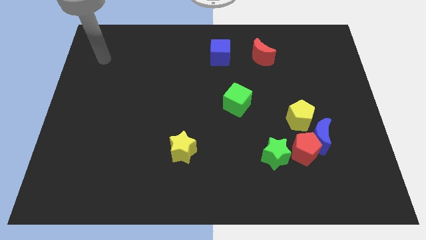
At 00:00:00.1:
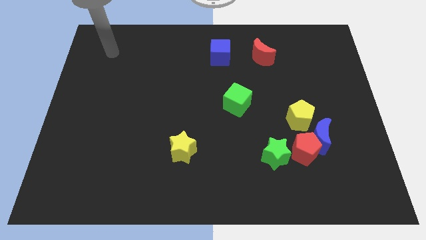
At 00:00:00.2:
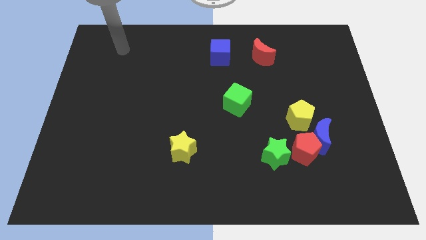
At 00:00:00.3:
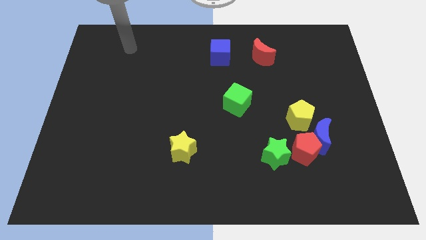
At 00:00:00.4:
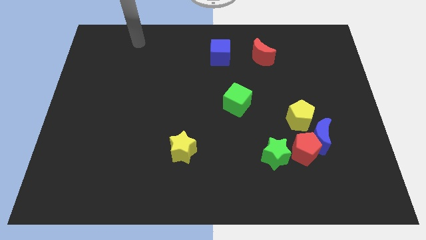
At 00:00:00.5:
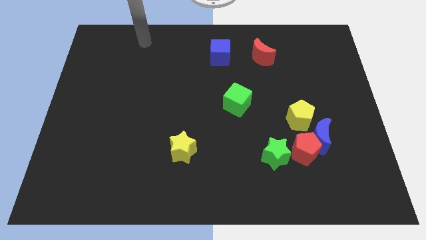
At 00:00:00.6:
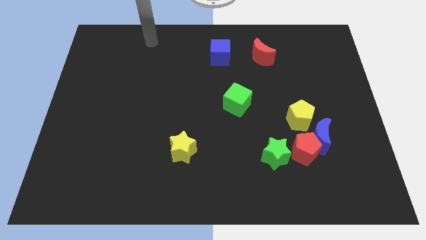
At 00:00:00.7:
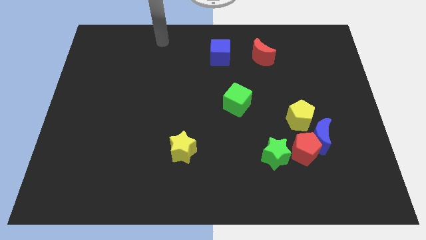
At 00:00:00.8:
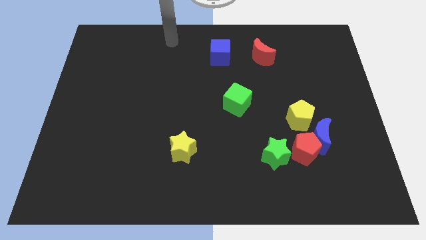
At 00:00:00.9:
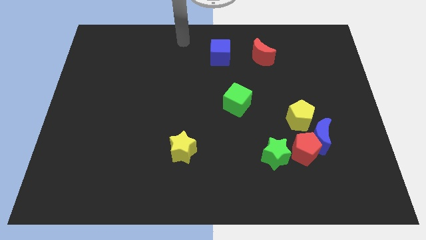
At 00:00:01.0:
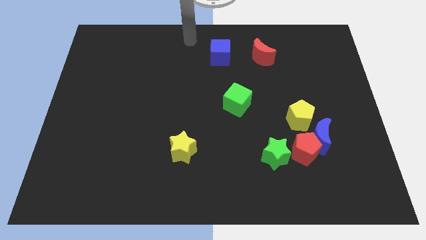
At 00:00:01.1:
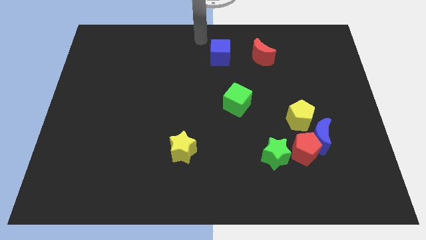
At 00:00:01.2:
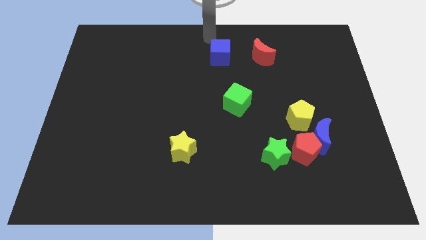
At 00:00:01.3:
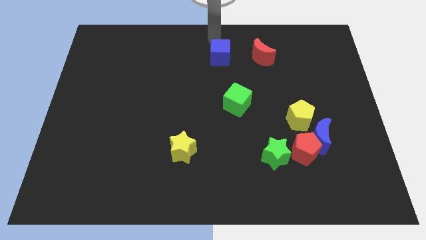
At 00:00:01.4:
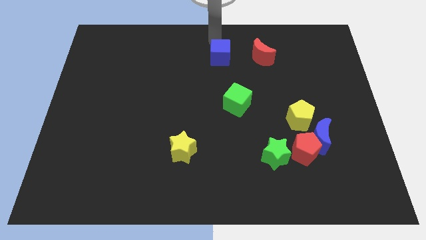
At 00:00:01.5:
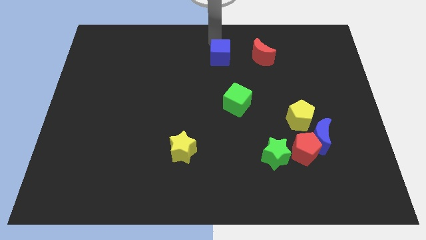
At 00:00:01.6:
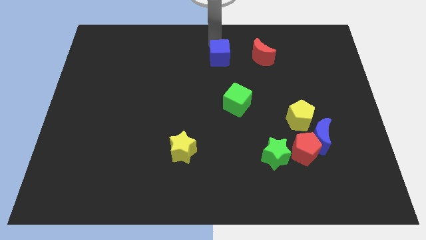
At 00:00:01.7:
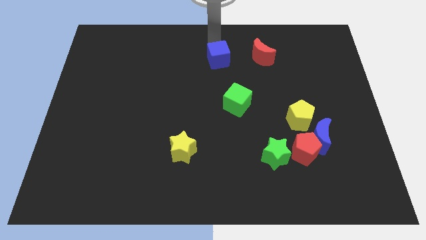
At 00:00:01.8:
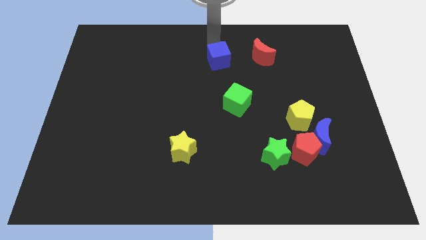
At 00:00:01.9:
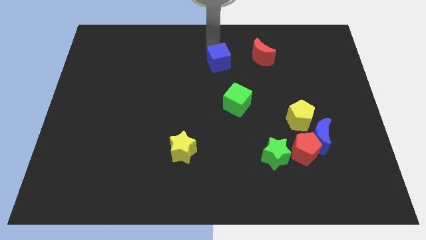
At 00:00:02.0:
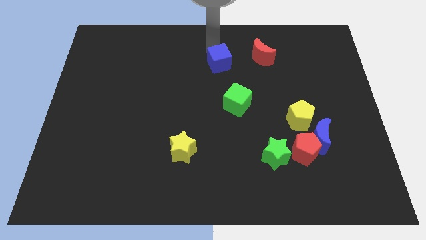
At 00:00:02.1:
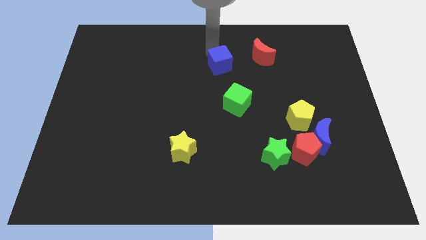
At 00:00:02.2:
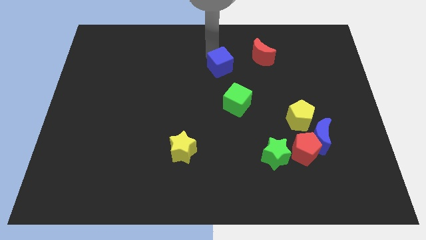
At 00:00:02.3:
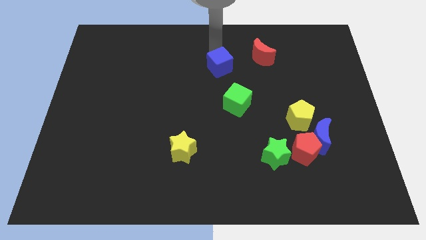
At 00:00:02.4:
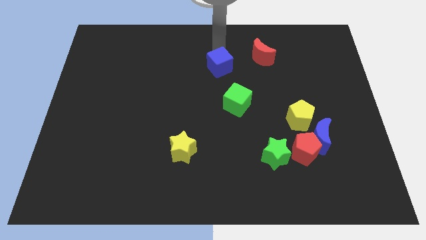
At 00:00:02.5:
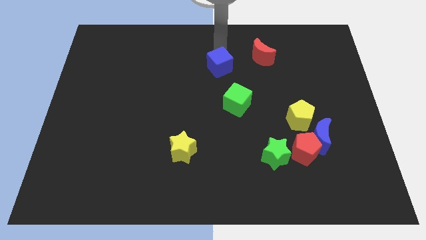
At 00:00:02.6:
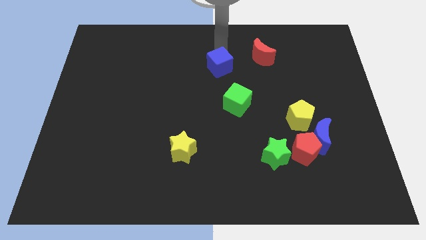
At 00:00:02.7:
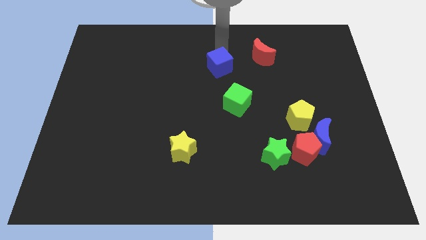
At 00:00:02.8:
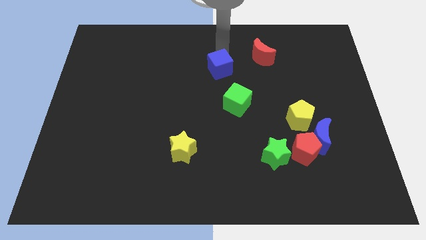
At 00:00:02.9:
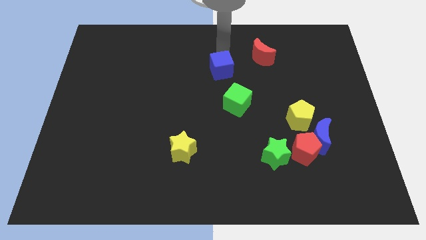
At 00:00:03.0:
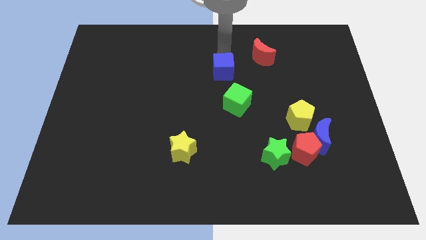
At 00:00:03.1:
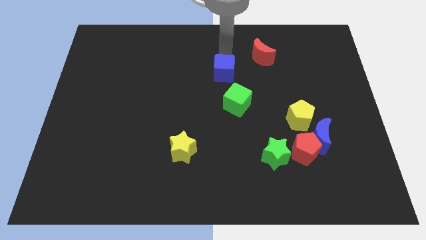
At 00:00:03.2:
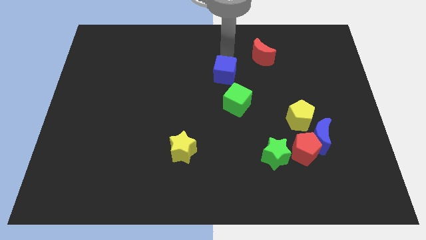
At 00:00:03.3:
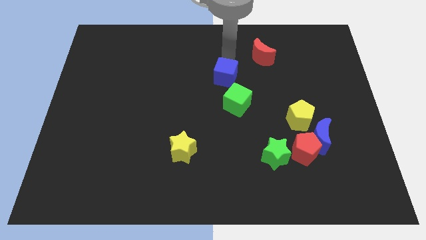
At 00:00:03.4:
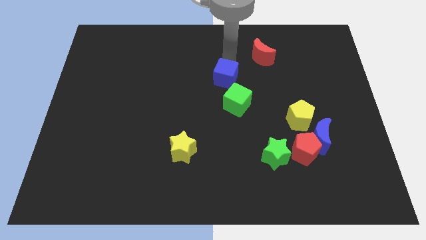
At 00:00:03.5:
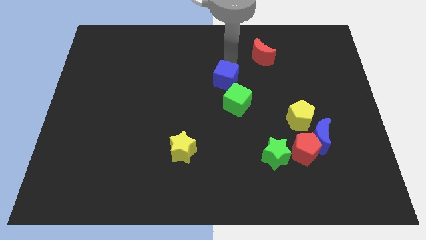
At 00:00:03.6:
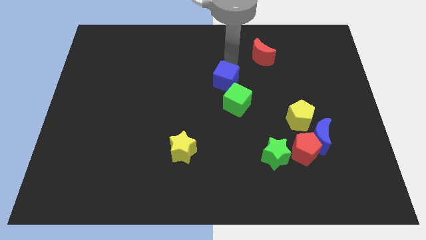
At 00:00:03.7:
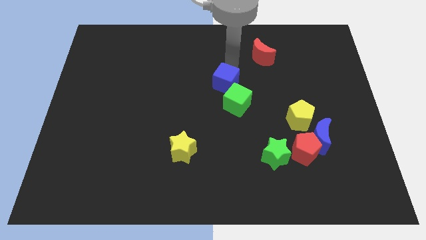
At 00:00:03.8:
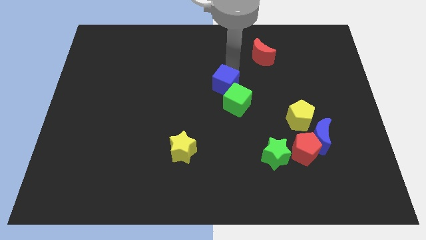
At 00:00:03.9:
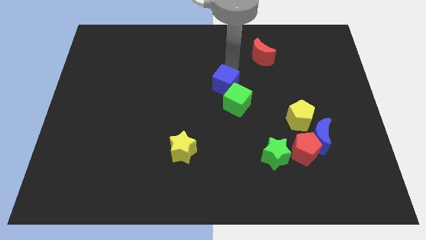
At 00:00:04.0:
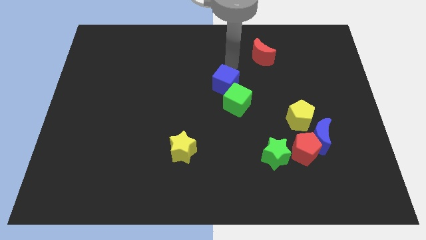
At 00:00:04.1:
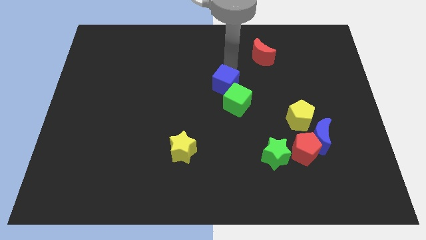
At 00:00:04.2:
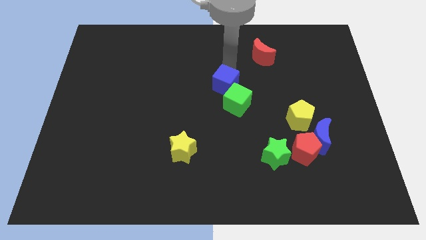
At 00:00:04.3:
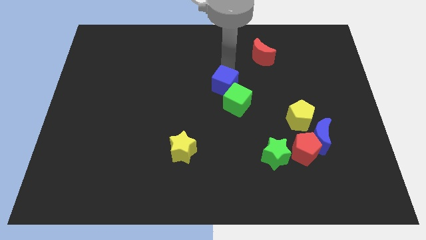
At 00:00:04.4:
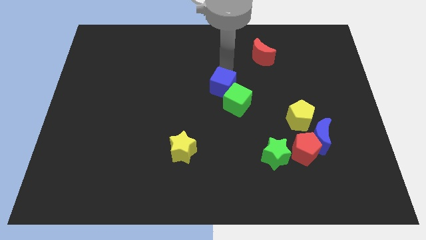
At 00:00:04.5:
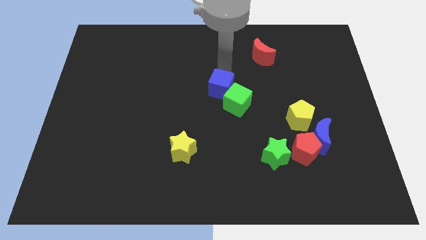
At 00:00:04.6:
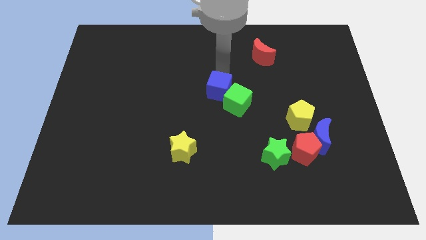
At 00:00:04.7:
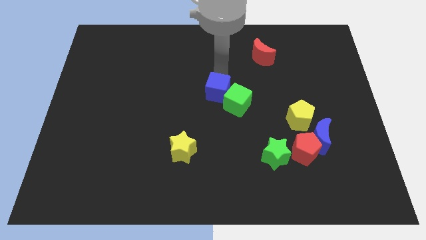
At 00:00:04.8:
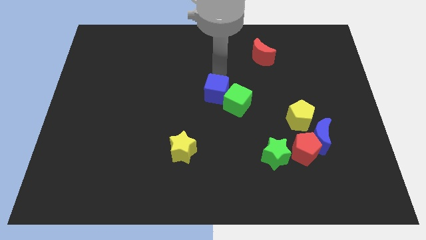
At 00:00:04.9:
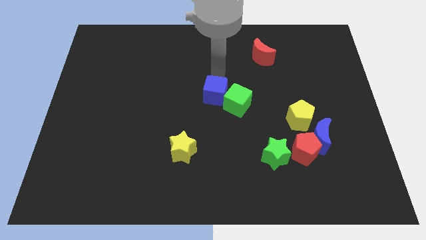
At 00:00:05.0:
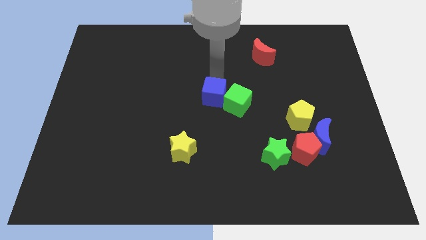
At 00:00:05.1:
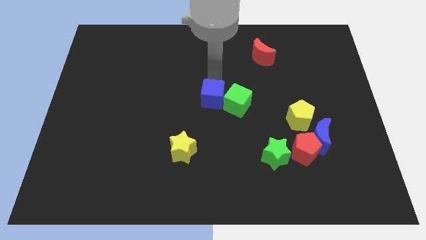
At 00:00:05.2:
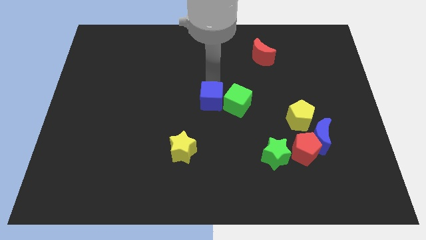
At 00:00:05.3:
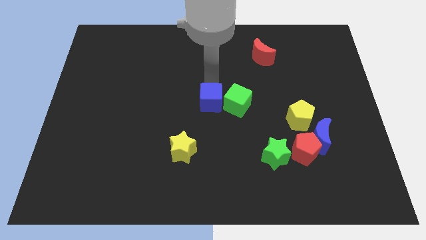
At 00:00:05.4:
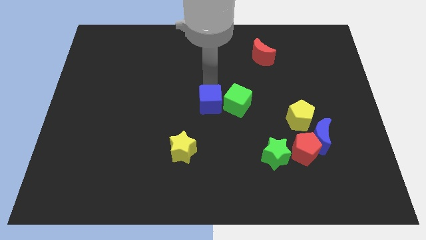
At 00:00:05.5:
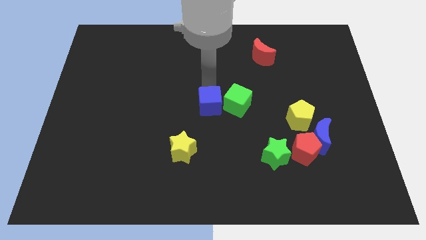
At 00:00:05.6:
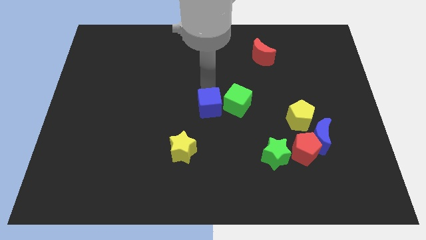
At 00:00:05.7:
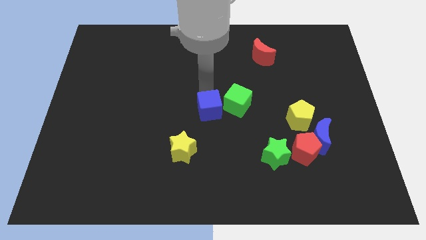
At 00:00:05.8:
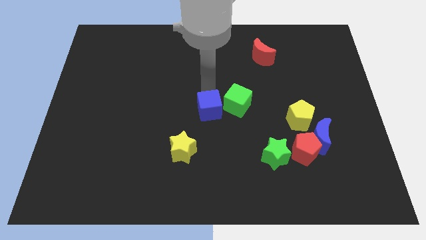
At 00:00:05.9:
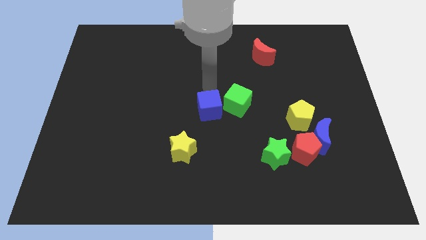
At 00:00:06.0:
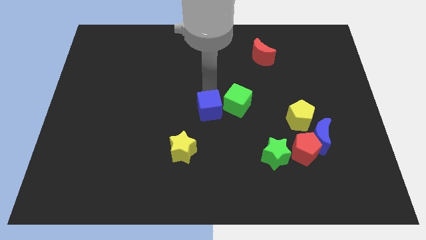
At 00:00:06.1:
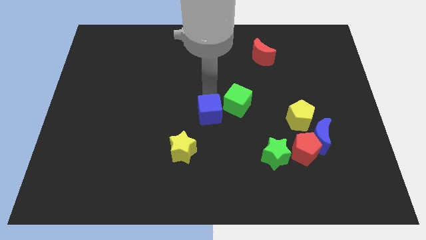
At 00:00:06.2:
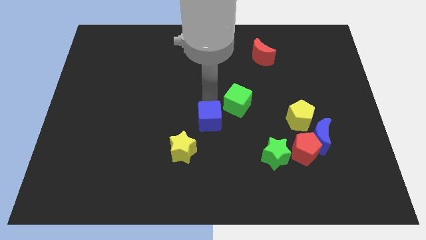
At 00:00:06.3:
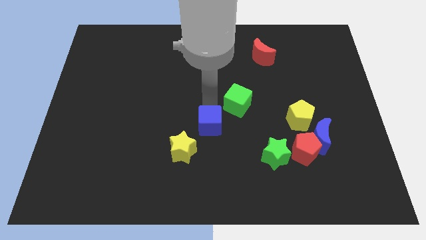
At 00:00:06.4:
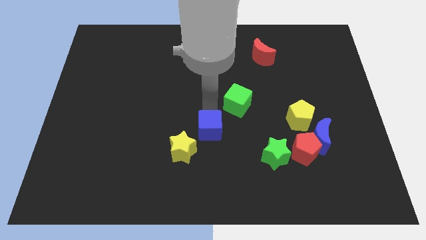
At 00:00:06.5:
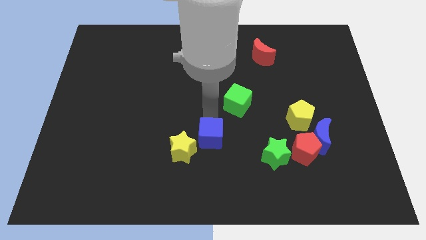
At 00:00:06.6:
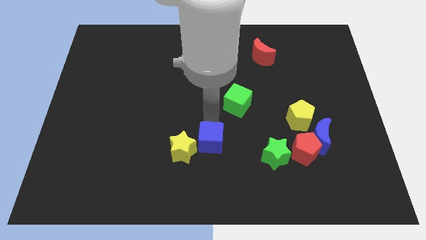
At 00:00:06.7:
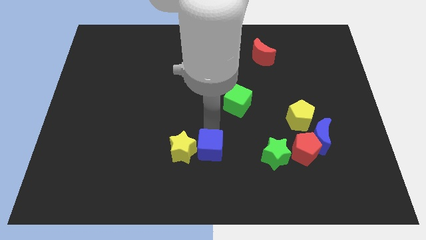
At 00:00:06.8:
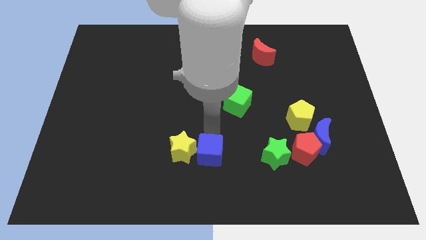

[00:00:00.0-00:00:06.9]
push the blue cube to the bottom
